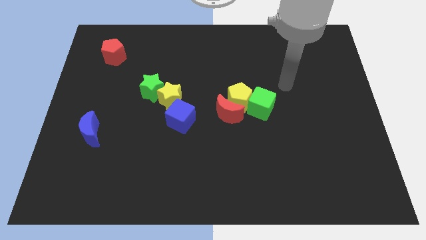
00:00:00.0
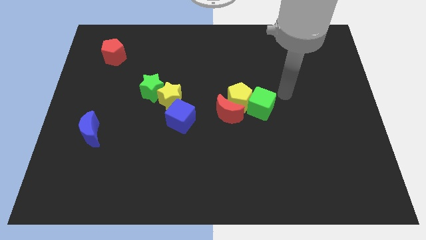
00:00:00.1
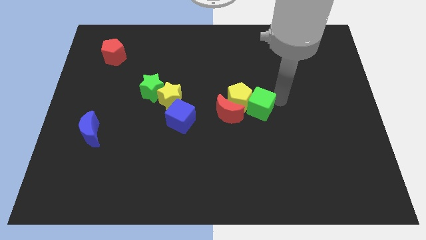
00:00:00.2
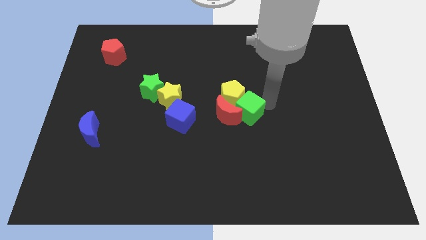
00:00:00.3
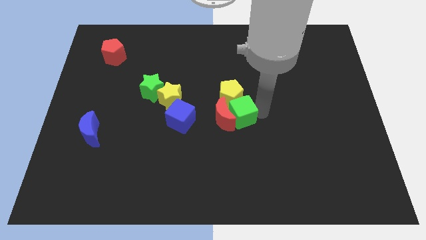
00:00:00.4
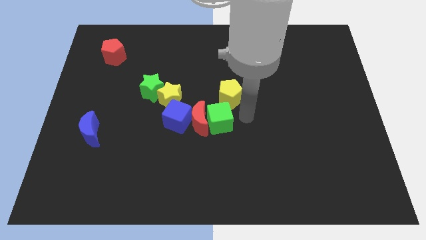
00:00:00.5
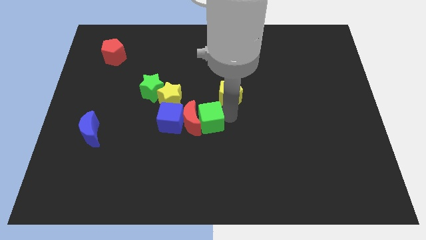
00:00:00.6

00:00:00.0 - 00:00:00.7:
pull the yellow pentagon apart from the red moon and green cube

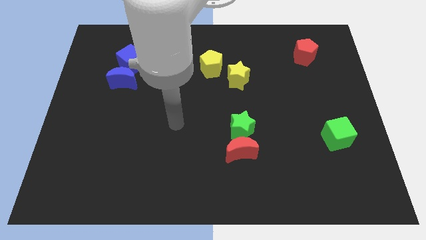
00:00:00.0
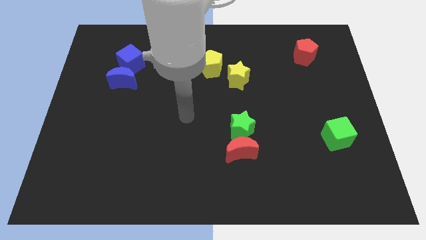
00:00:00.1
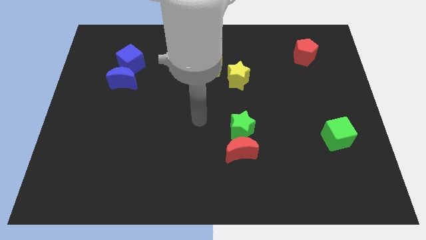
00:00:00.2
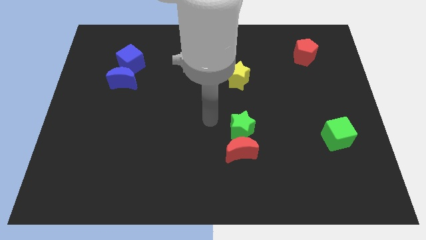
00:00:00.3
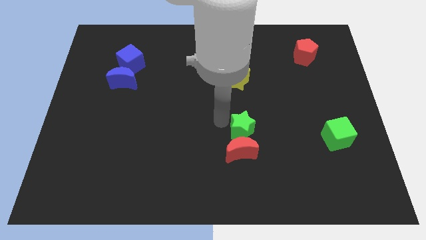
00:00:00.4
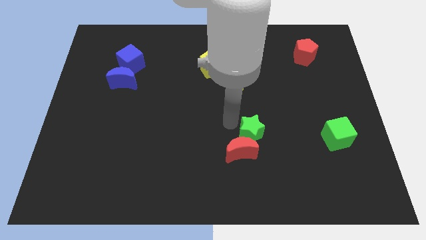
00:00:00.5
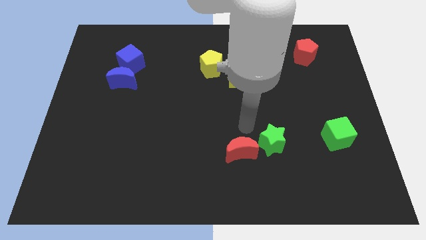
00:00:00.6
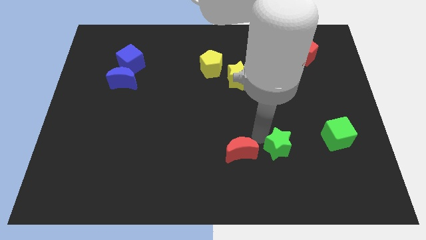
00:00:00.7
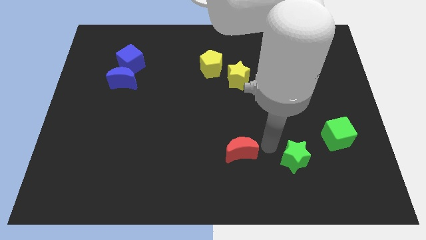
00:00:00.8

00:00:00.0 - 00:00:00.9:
move the red moon away from the green star

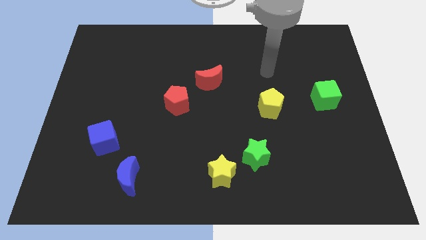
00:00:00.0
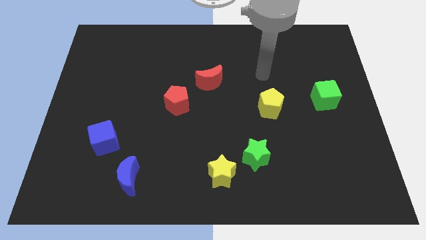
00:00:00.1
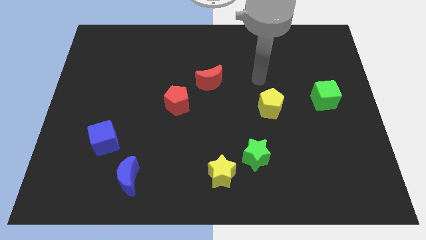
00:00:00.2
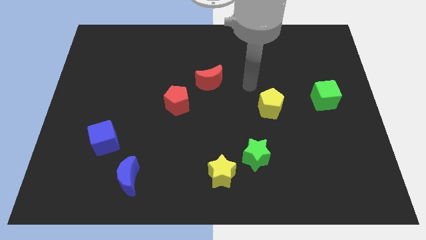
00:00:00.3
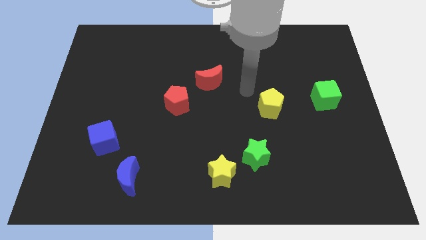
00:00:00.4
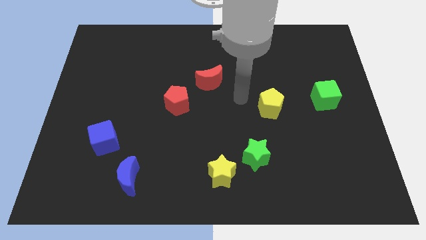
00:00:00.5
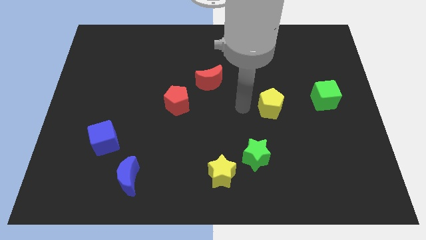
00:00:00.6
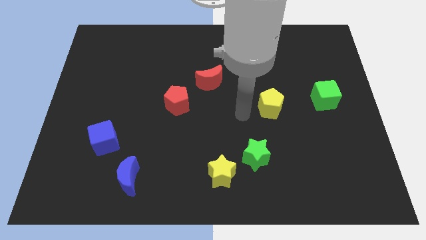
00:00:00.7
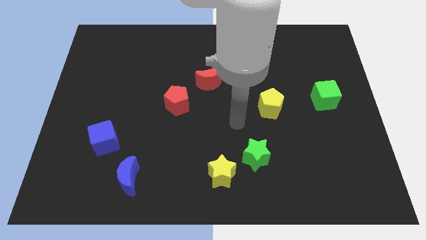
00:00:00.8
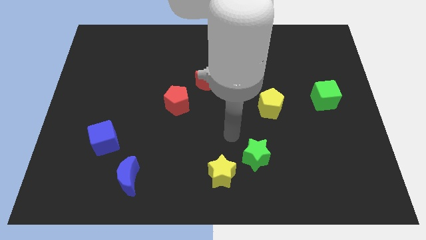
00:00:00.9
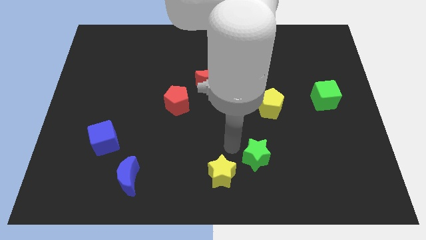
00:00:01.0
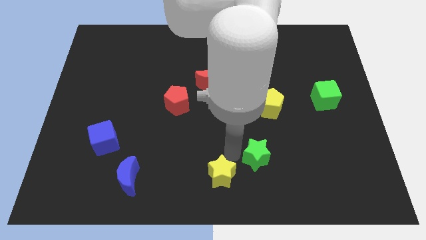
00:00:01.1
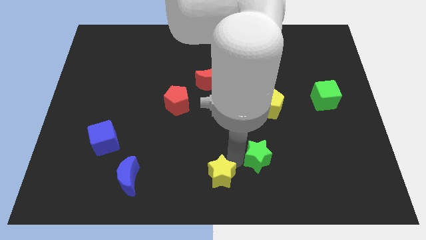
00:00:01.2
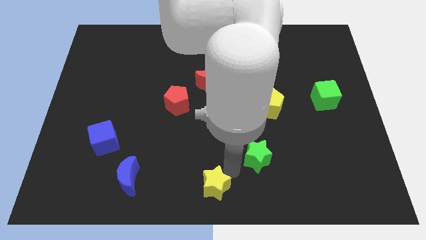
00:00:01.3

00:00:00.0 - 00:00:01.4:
move the green star away from the yellow star

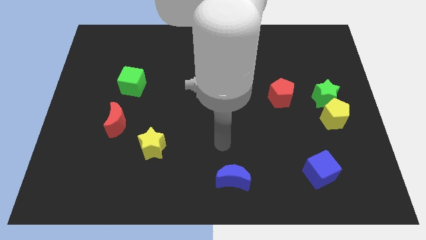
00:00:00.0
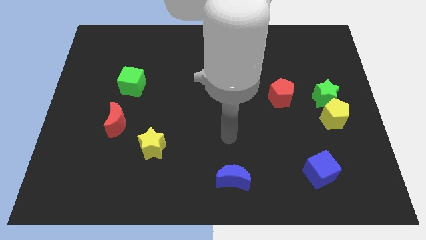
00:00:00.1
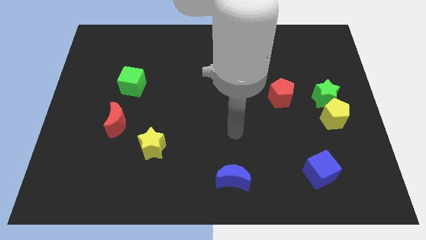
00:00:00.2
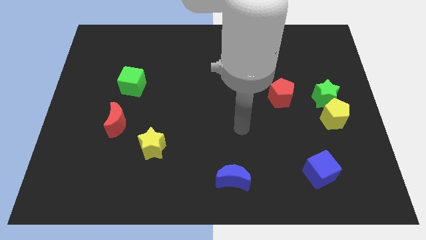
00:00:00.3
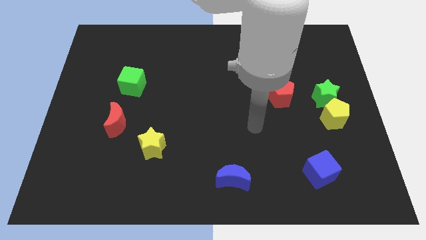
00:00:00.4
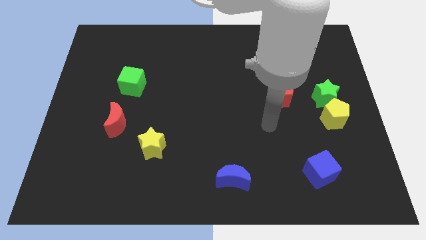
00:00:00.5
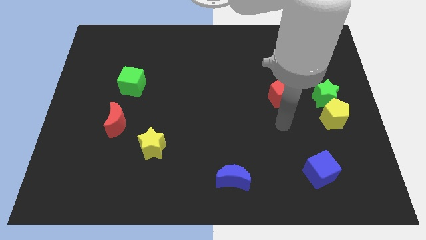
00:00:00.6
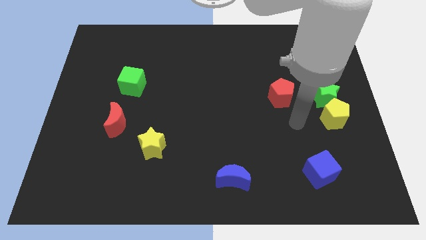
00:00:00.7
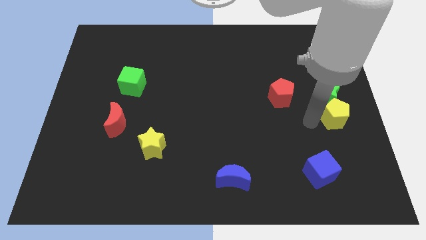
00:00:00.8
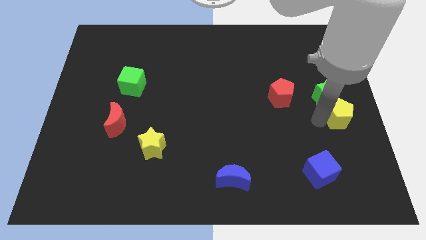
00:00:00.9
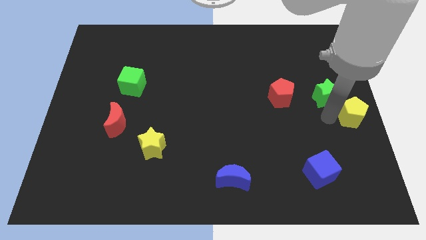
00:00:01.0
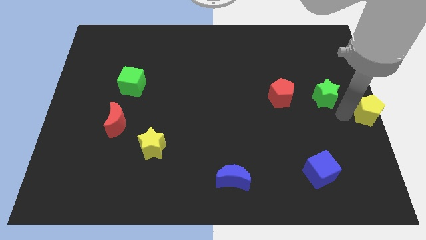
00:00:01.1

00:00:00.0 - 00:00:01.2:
move the green star away from the yellow pentagon

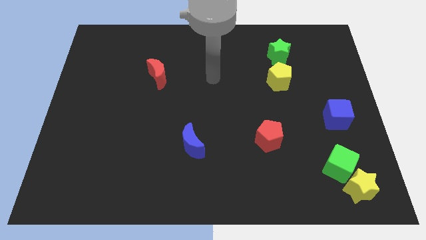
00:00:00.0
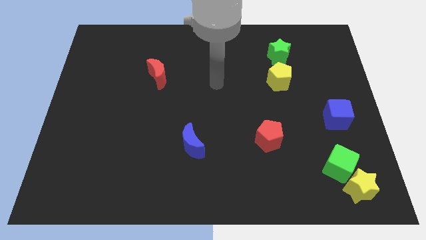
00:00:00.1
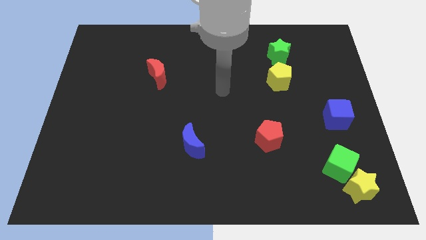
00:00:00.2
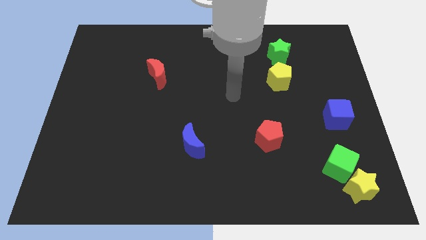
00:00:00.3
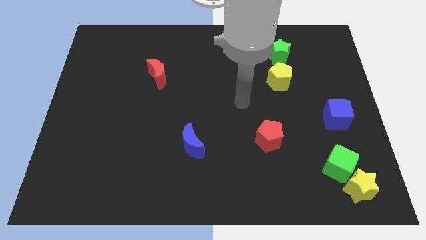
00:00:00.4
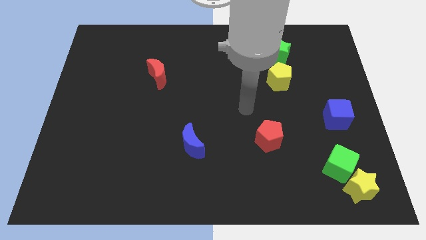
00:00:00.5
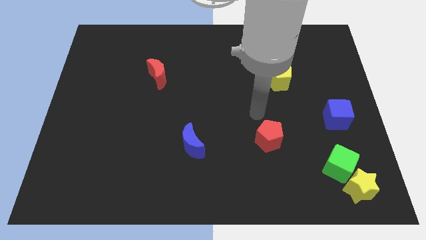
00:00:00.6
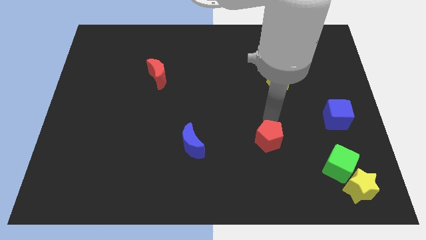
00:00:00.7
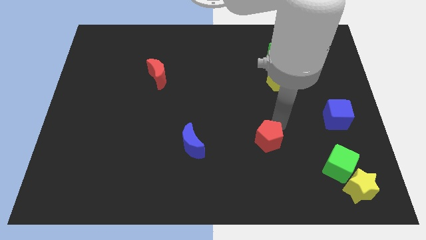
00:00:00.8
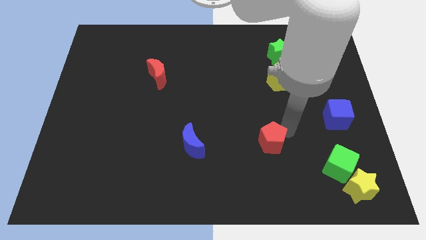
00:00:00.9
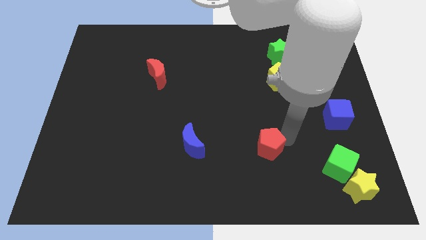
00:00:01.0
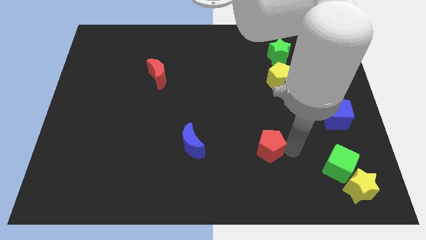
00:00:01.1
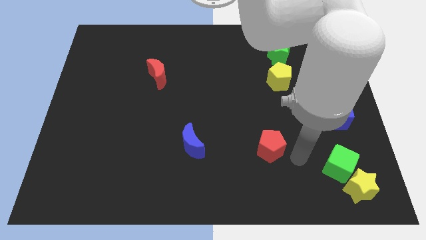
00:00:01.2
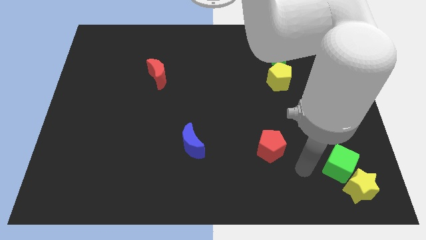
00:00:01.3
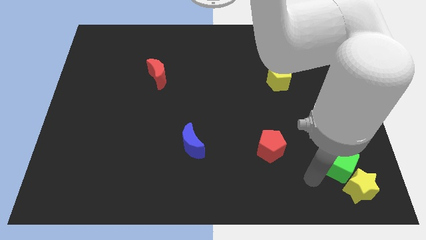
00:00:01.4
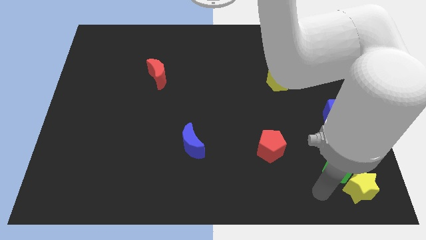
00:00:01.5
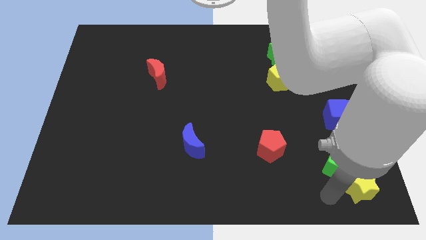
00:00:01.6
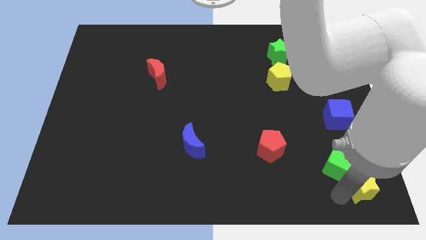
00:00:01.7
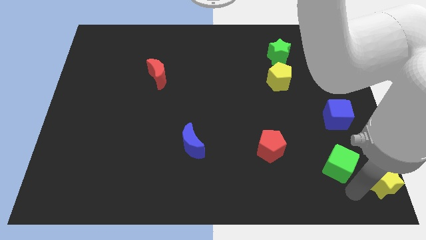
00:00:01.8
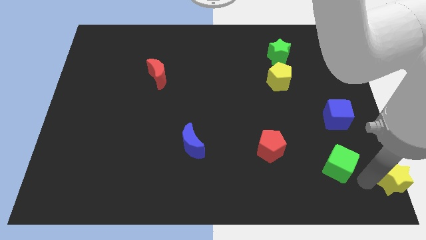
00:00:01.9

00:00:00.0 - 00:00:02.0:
move the green cube away from the yellow star

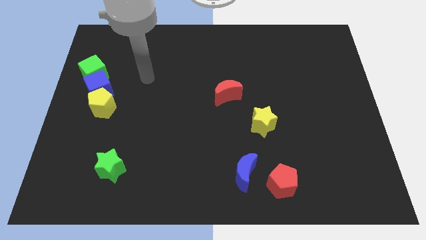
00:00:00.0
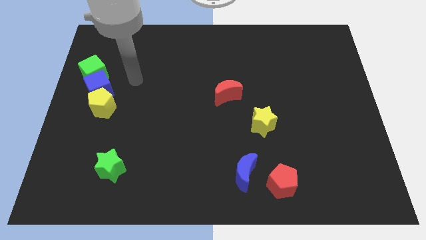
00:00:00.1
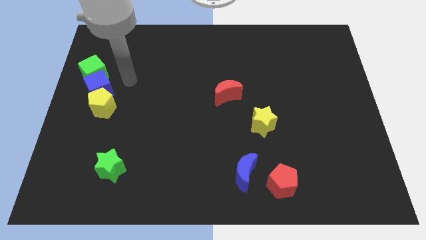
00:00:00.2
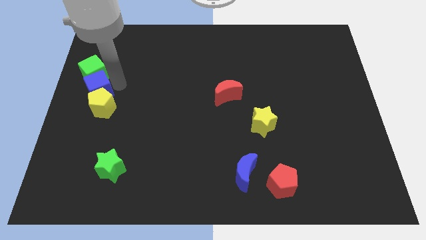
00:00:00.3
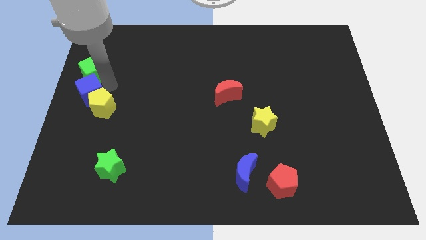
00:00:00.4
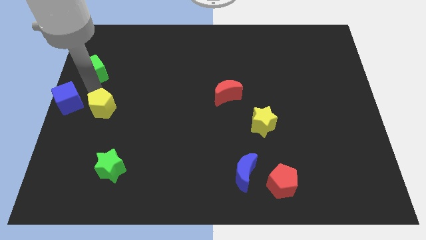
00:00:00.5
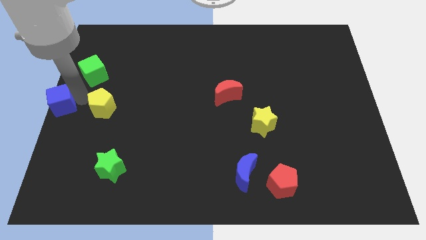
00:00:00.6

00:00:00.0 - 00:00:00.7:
move the yellow pentagon away from the blue cube

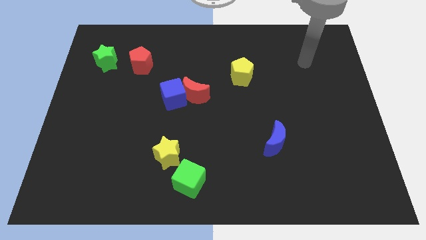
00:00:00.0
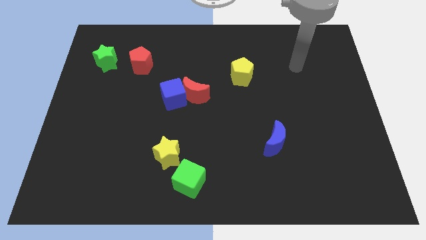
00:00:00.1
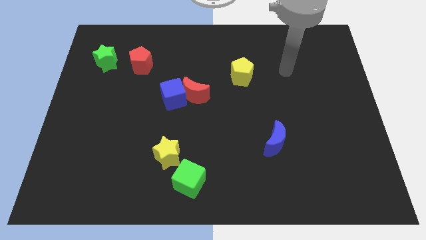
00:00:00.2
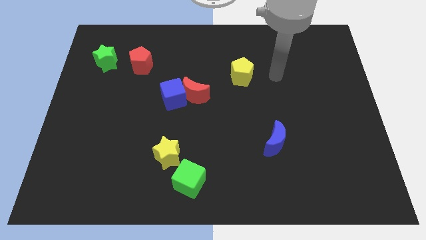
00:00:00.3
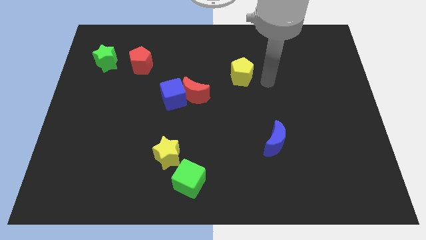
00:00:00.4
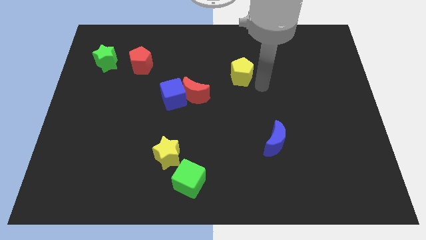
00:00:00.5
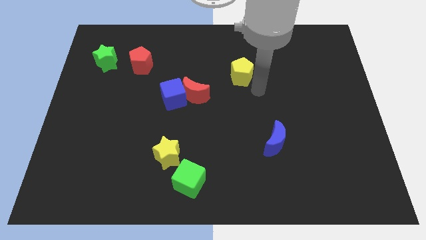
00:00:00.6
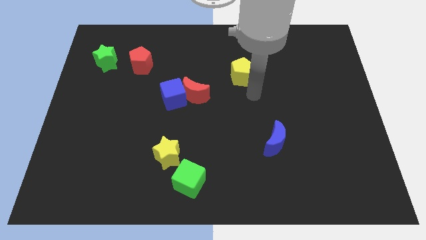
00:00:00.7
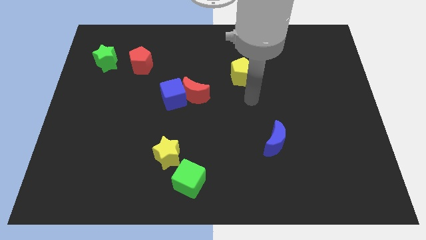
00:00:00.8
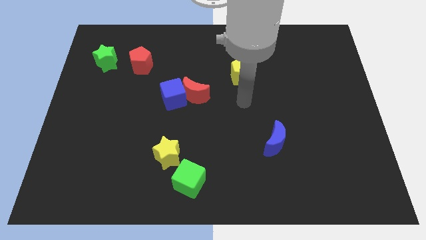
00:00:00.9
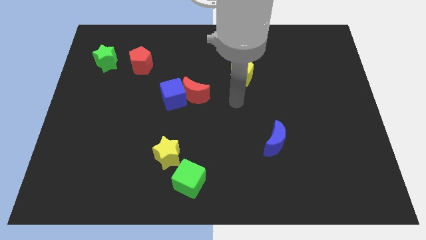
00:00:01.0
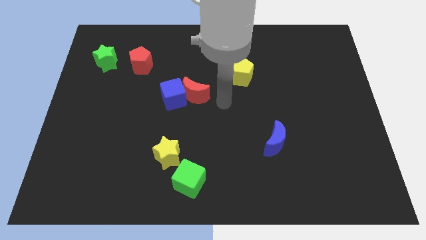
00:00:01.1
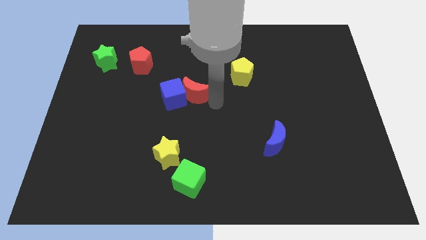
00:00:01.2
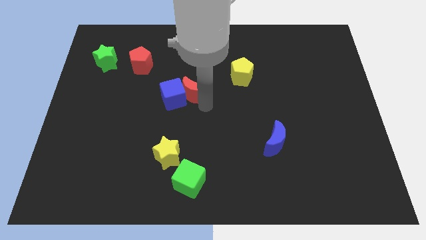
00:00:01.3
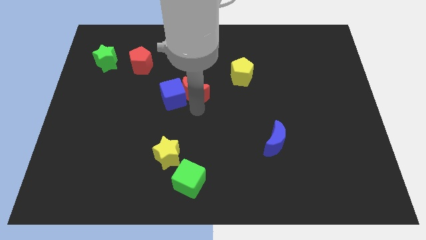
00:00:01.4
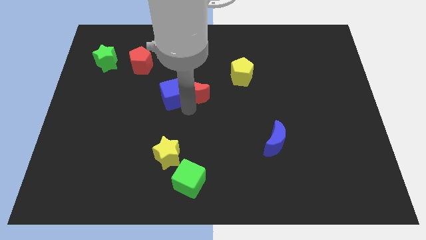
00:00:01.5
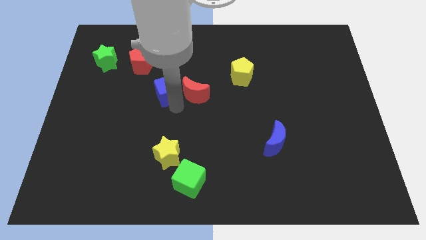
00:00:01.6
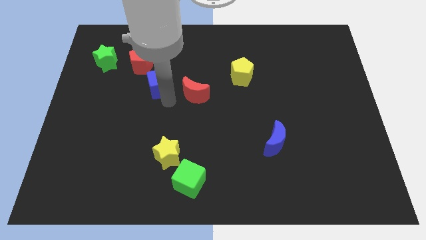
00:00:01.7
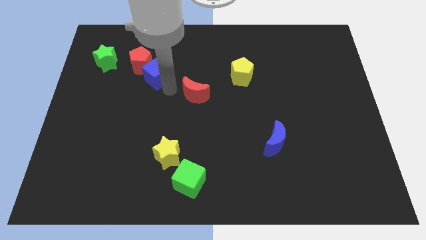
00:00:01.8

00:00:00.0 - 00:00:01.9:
move the red moon away from the blue cube

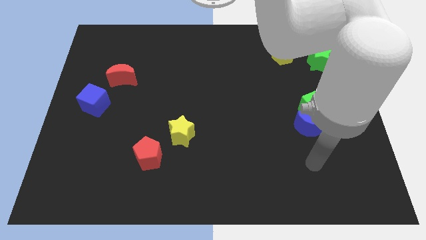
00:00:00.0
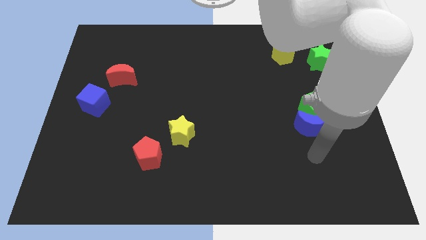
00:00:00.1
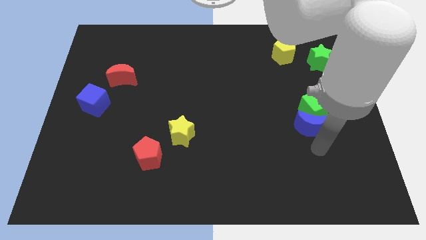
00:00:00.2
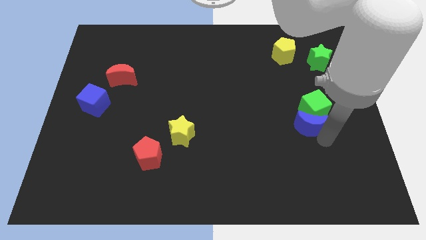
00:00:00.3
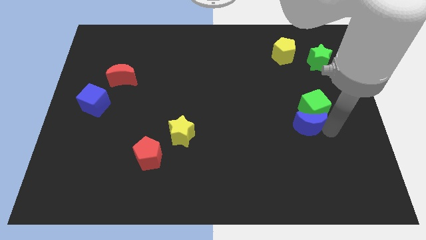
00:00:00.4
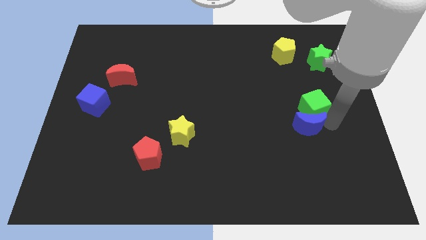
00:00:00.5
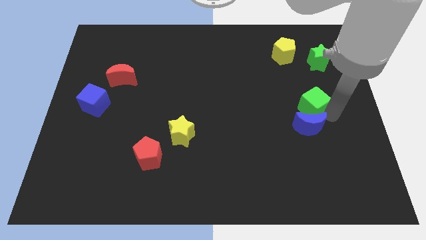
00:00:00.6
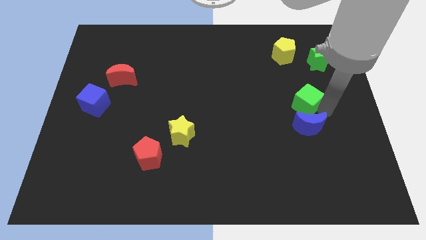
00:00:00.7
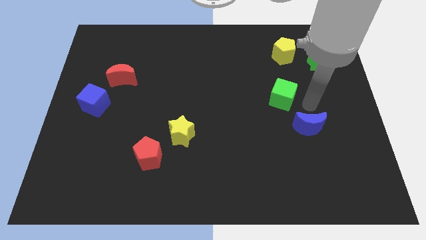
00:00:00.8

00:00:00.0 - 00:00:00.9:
pull the blue moon apart from the green cube
